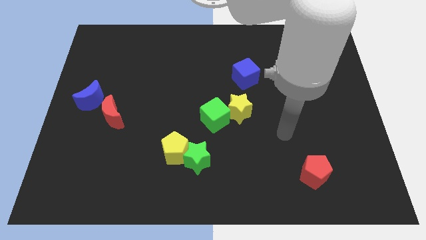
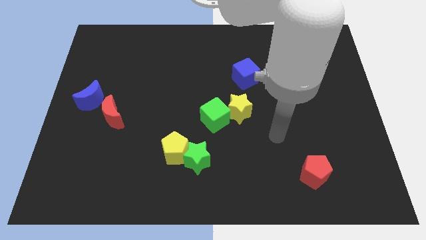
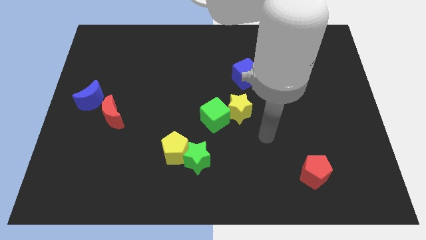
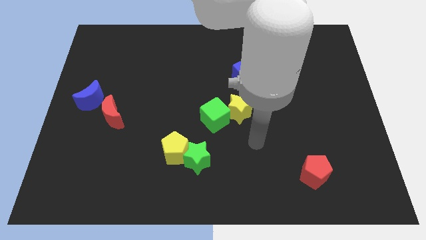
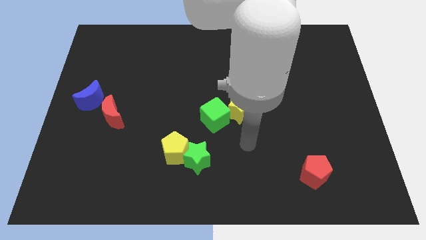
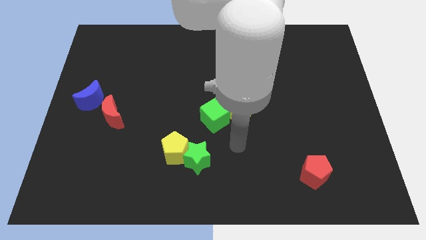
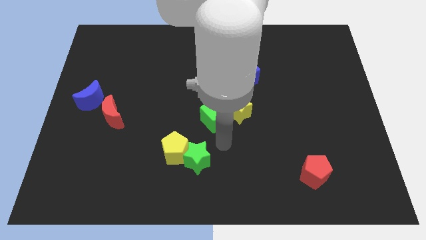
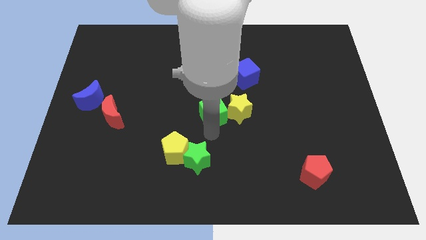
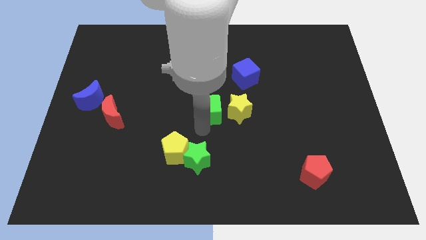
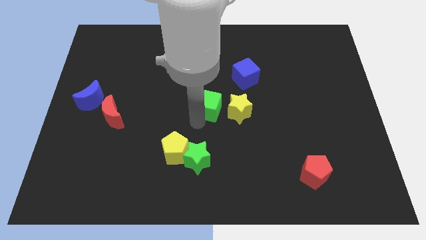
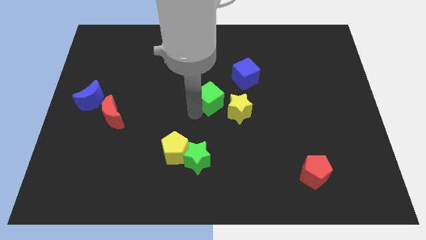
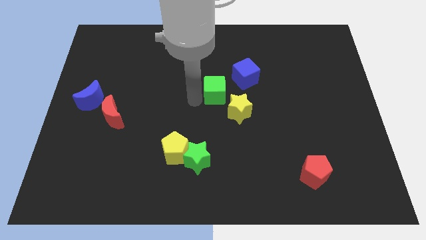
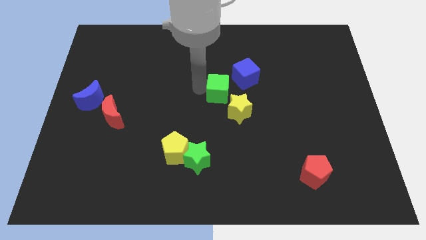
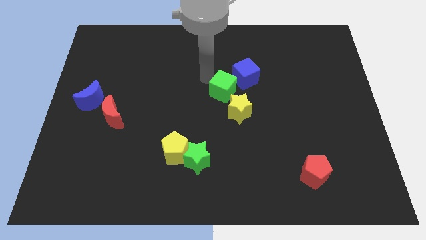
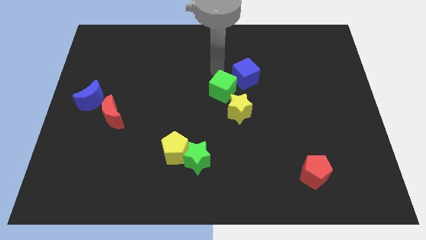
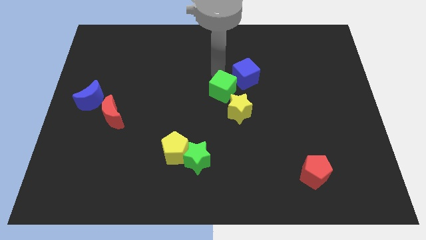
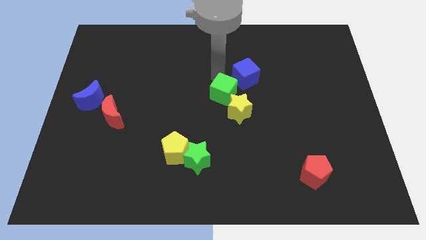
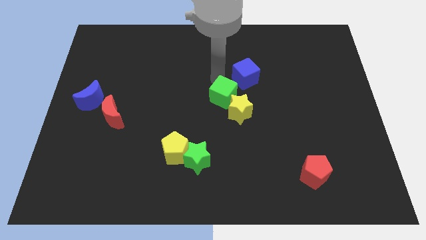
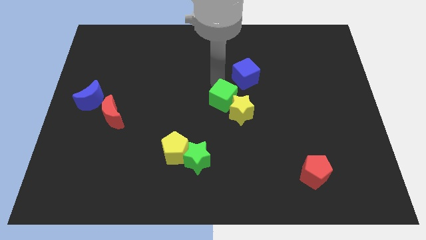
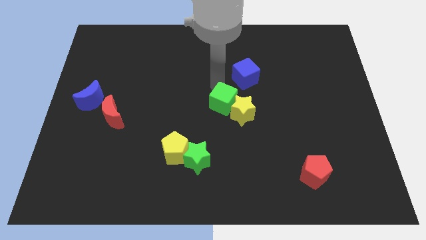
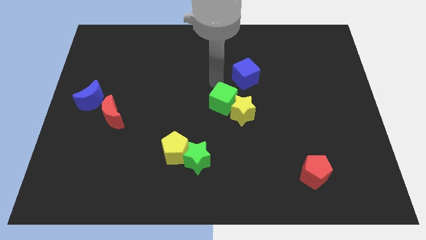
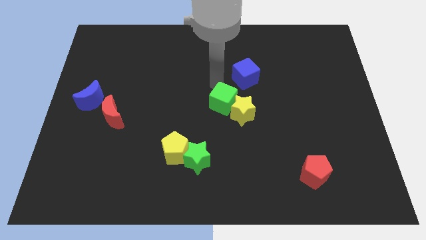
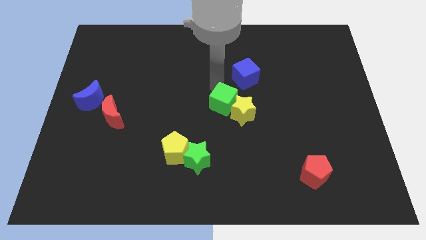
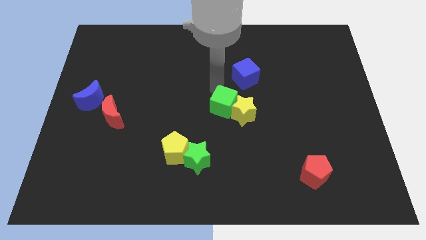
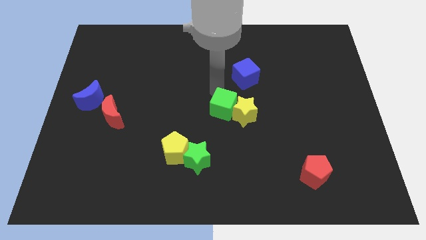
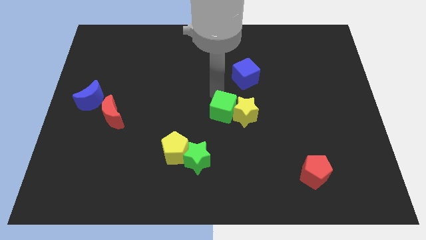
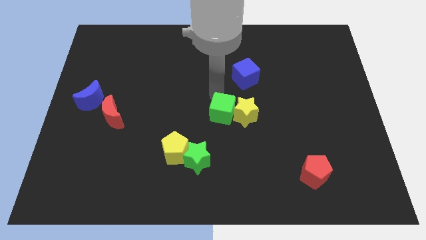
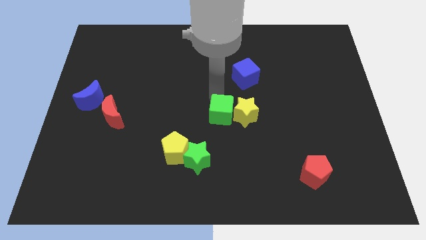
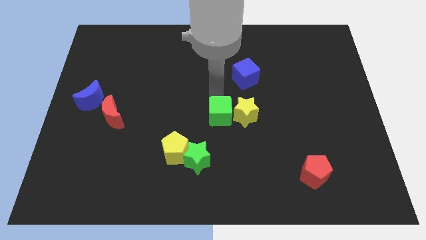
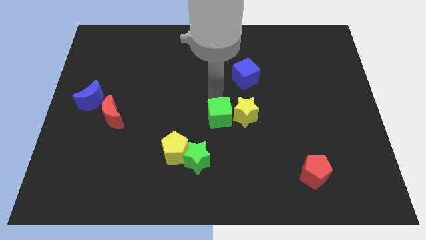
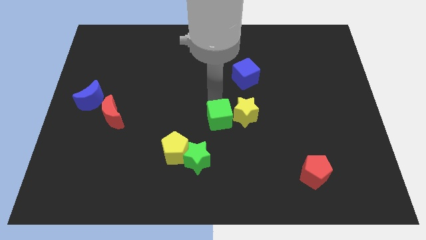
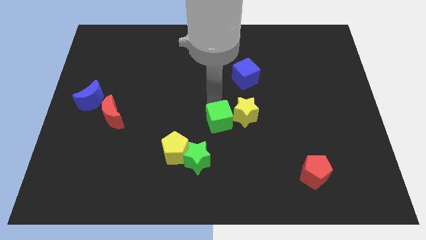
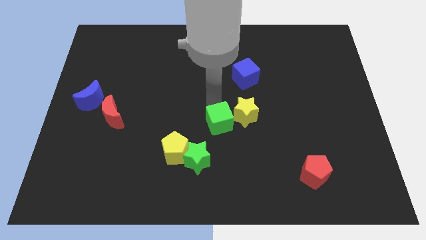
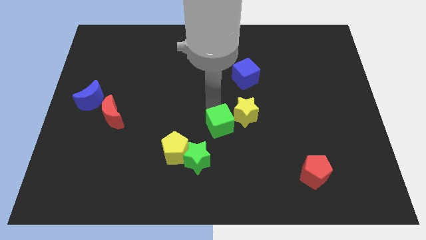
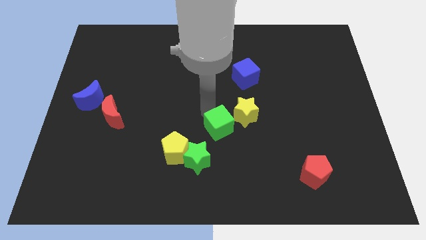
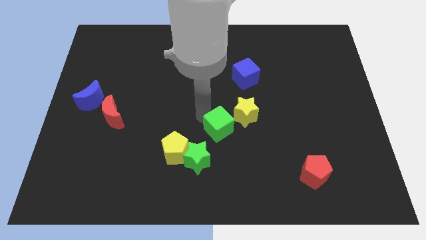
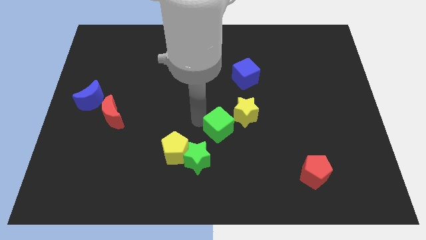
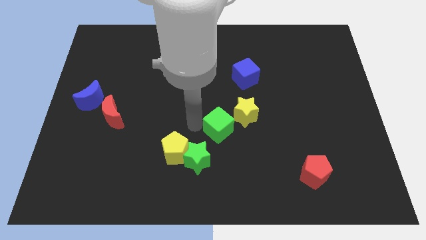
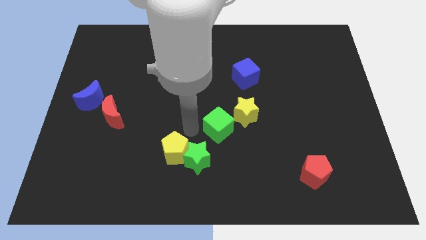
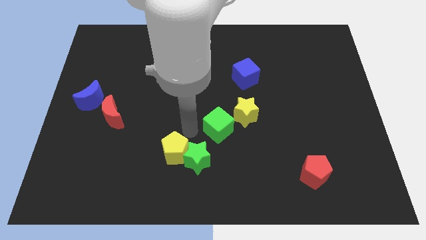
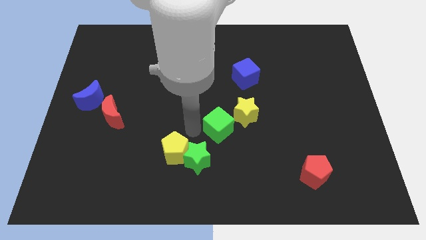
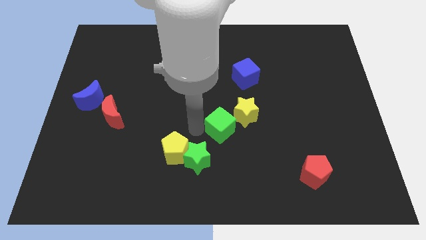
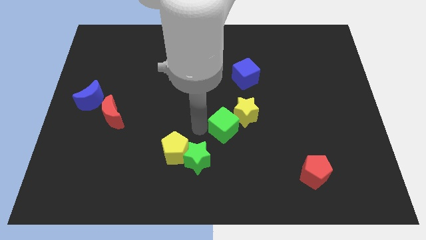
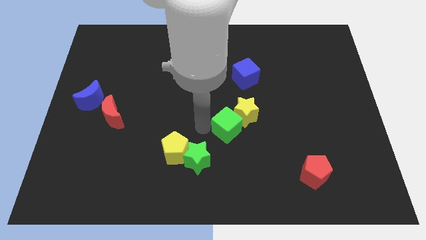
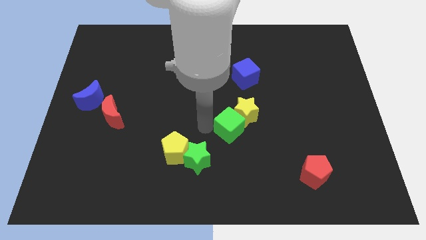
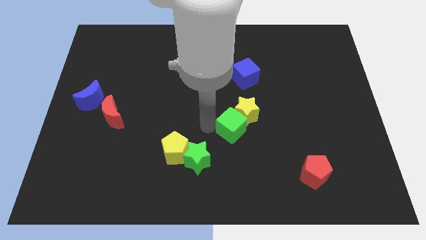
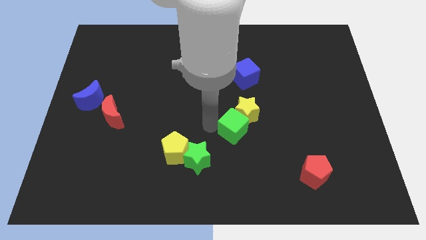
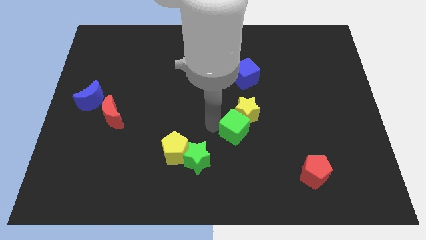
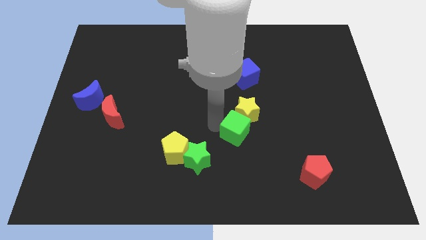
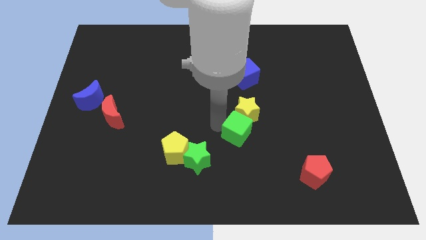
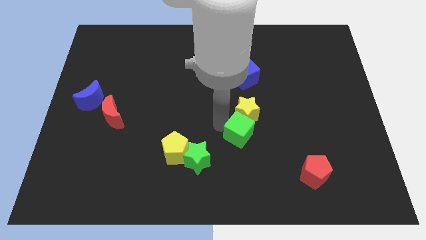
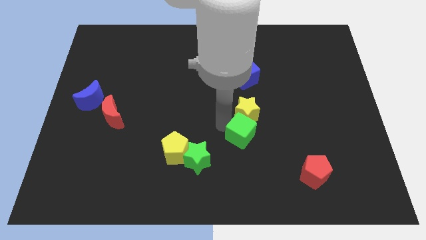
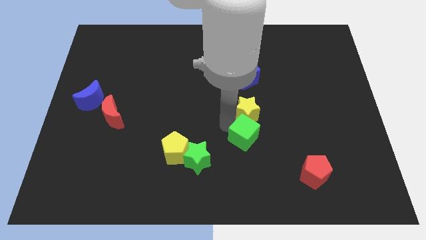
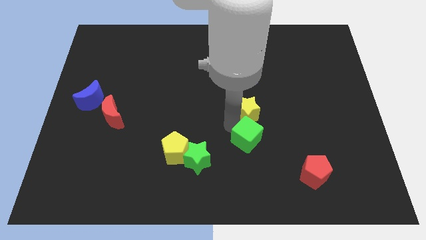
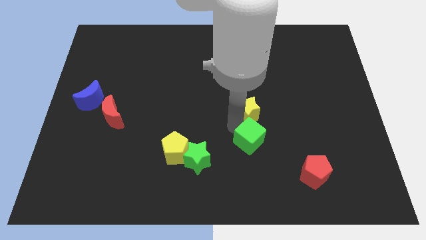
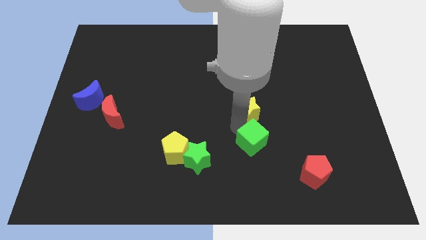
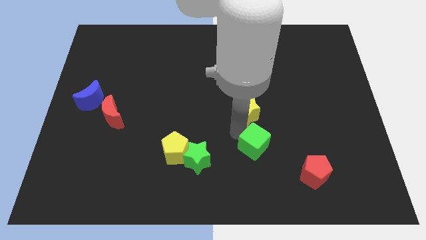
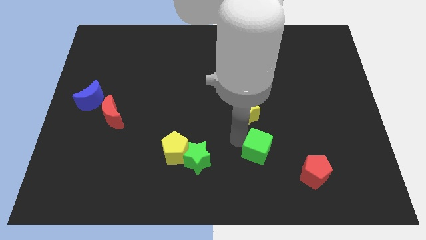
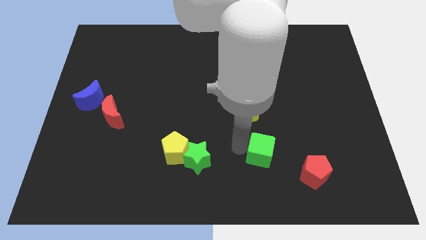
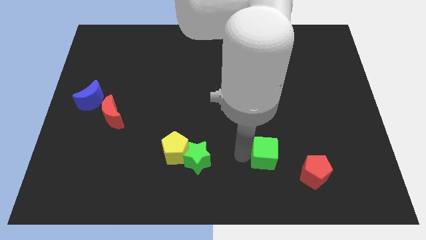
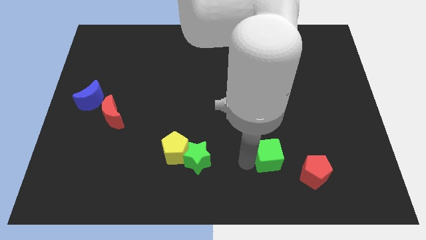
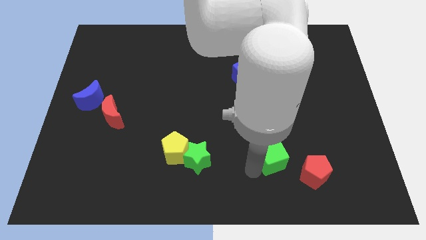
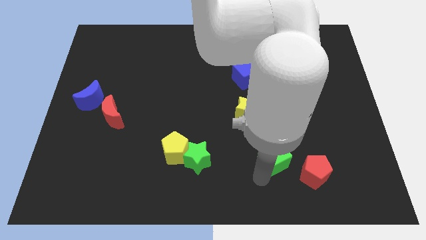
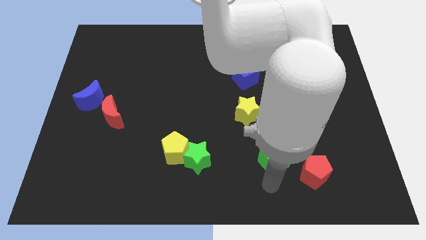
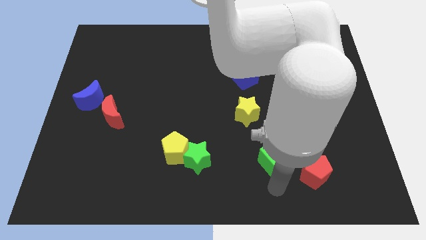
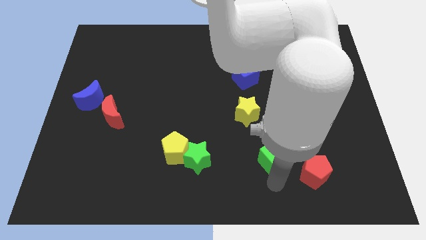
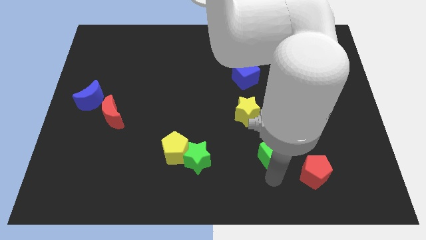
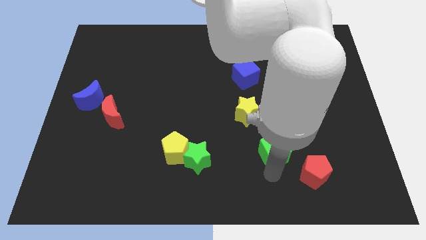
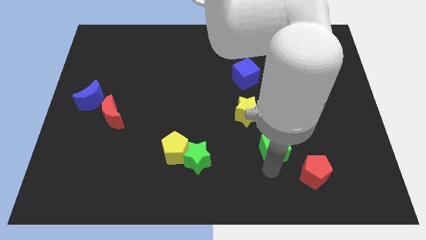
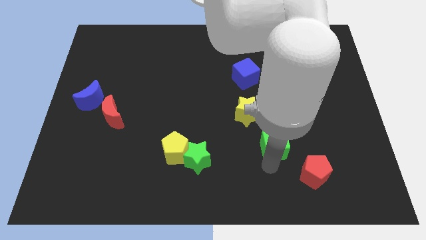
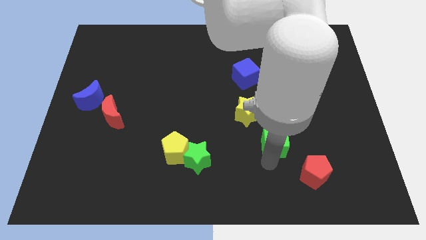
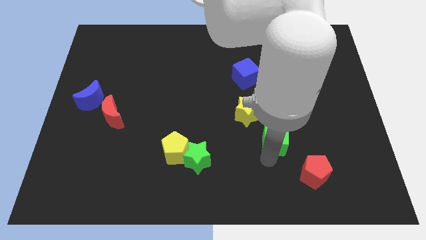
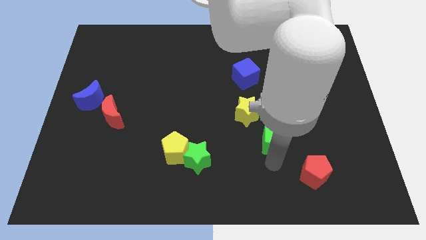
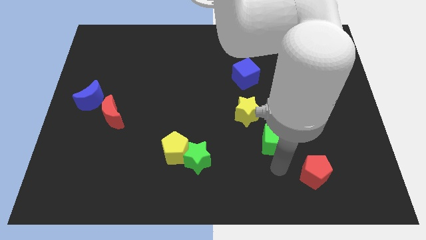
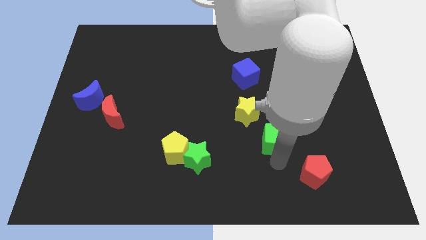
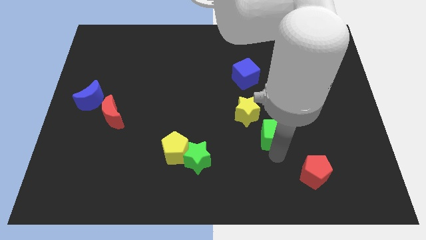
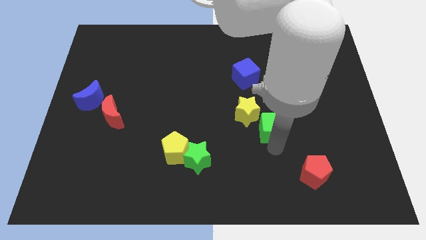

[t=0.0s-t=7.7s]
put the green cube right of the yellow star
